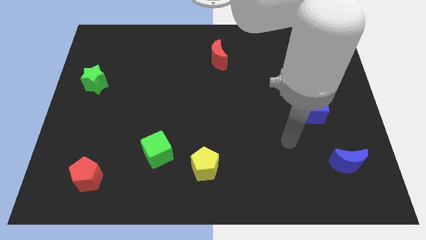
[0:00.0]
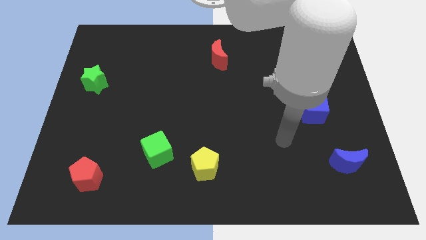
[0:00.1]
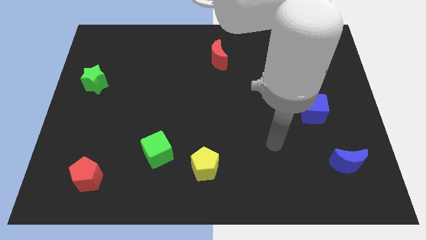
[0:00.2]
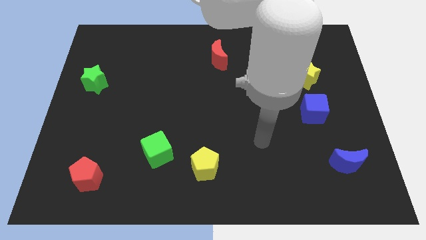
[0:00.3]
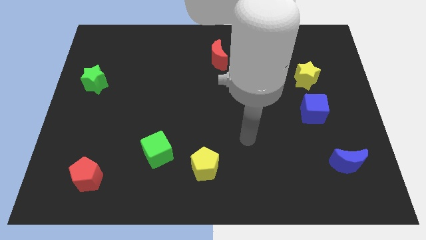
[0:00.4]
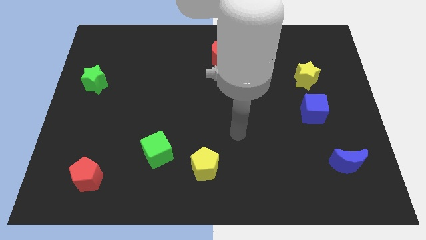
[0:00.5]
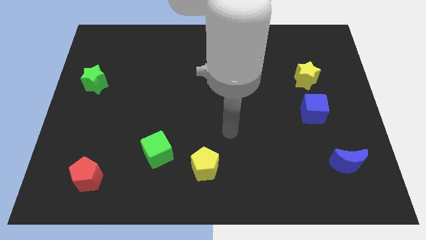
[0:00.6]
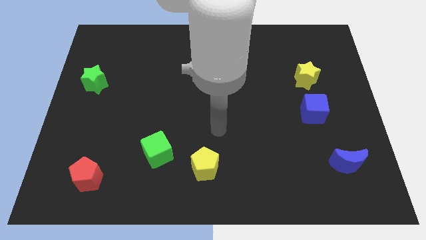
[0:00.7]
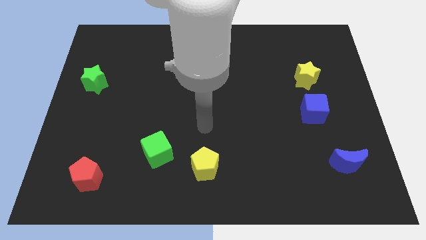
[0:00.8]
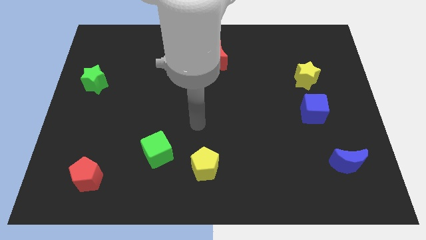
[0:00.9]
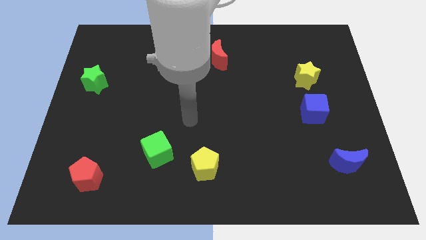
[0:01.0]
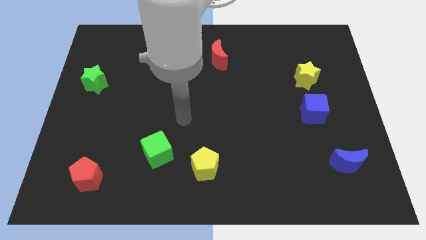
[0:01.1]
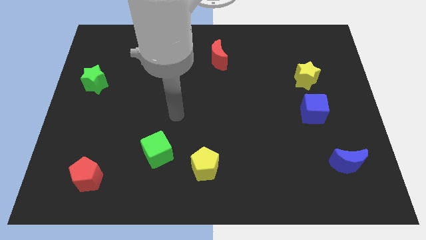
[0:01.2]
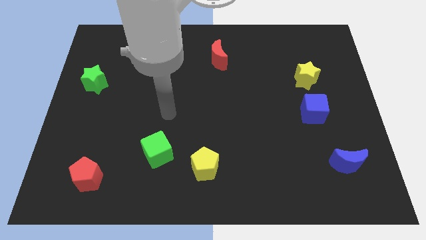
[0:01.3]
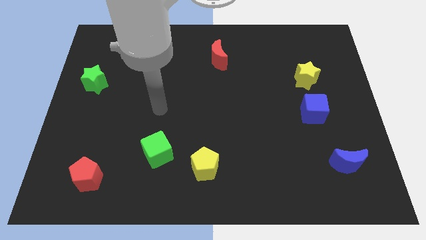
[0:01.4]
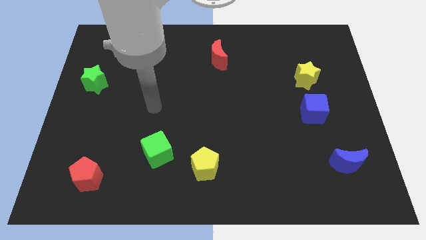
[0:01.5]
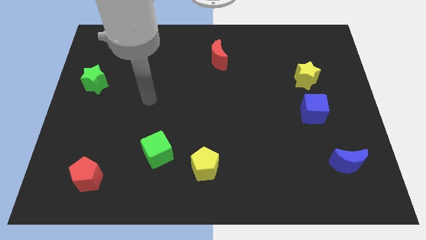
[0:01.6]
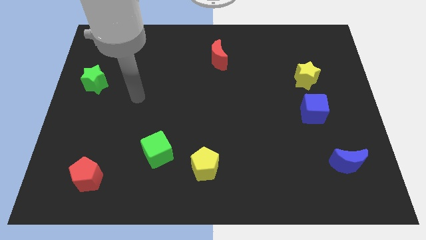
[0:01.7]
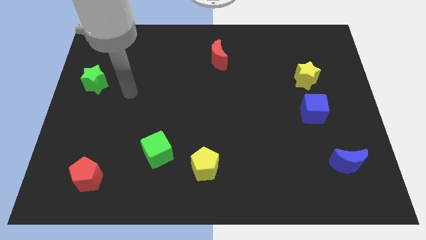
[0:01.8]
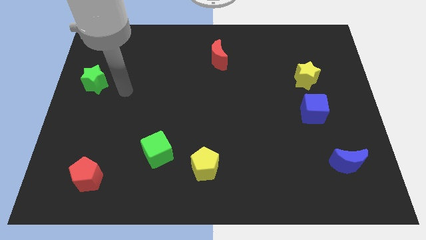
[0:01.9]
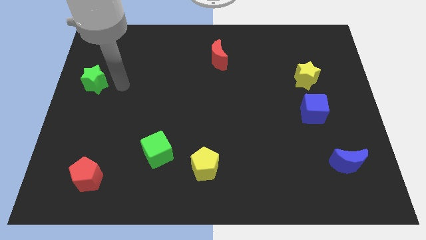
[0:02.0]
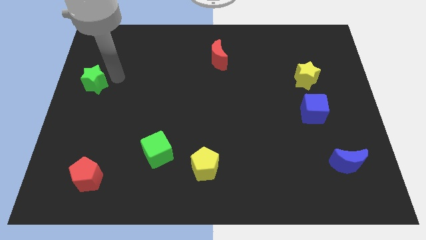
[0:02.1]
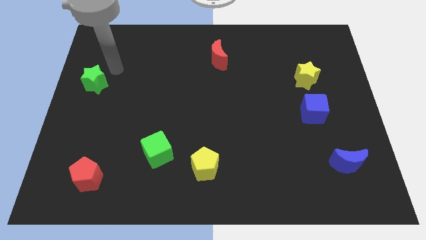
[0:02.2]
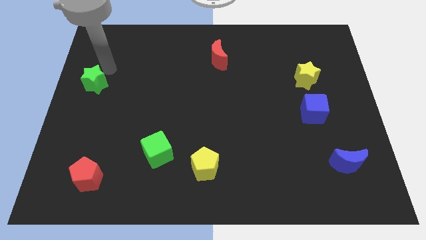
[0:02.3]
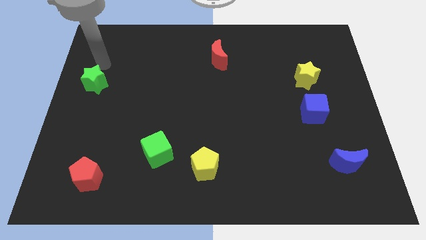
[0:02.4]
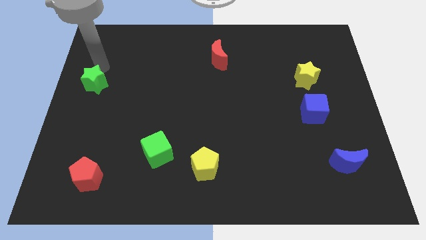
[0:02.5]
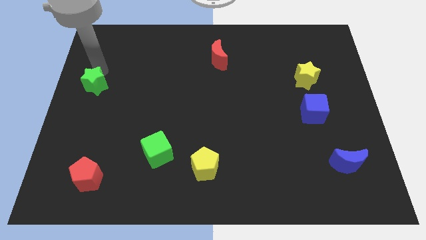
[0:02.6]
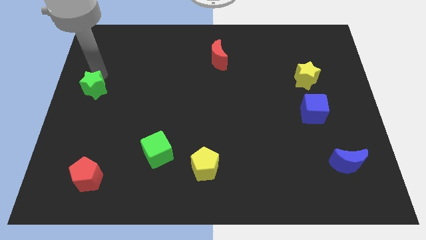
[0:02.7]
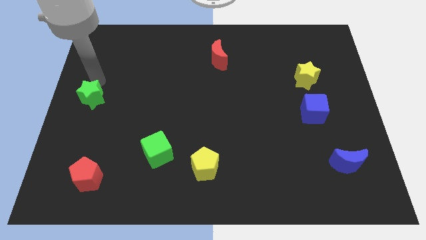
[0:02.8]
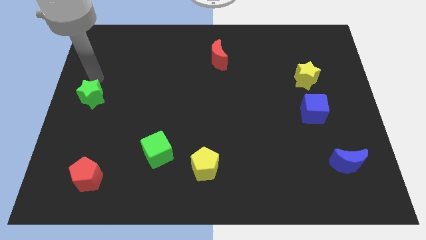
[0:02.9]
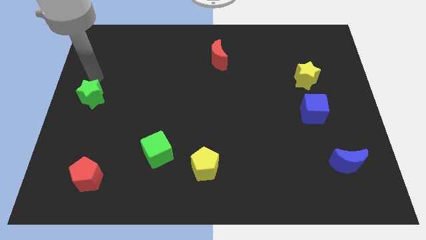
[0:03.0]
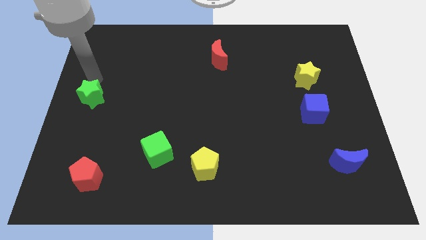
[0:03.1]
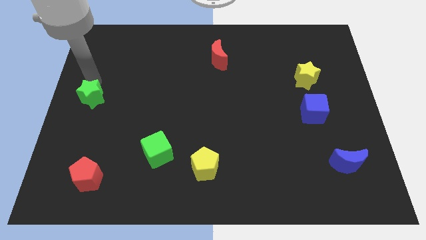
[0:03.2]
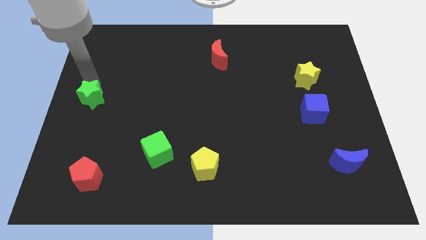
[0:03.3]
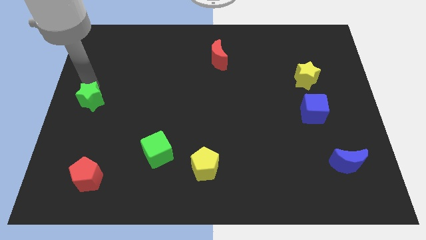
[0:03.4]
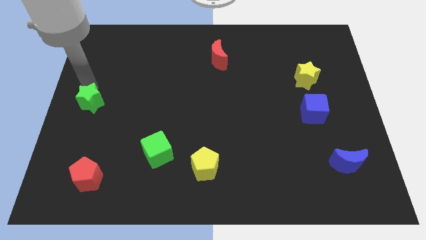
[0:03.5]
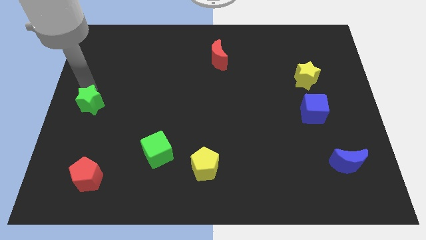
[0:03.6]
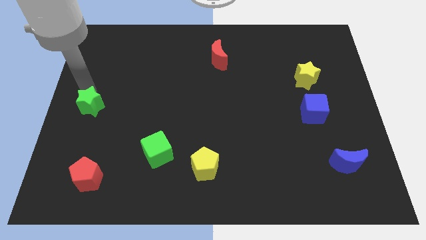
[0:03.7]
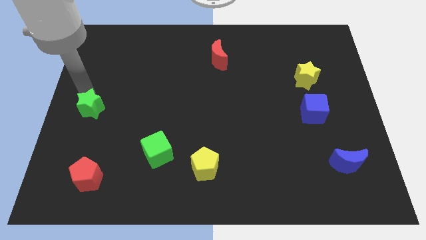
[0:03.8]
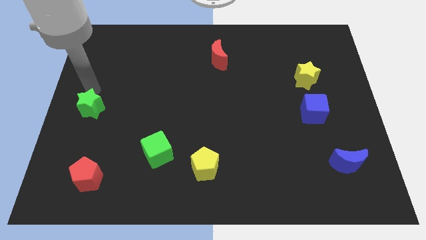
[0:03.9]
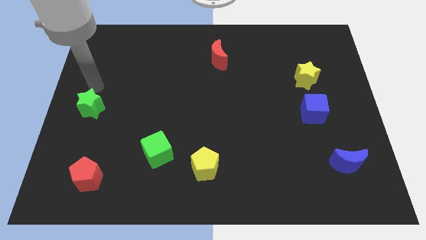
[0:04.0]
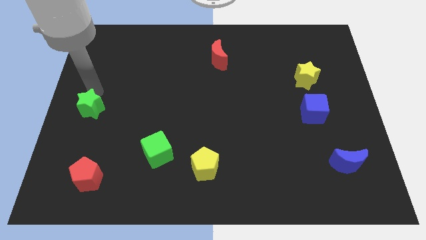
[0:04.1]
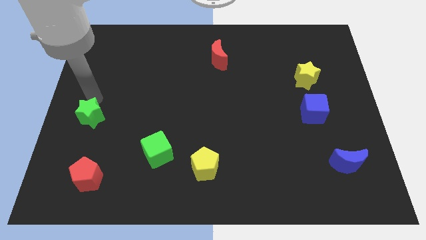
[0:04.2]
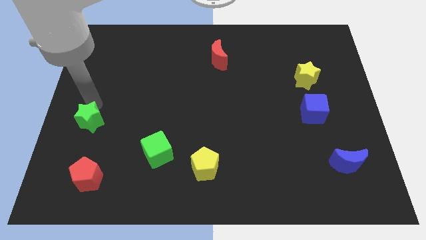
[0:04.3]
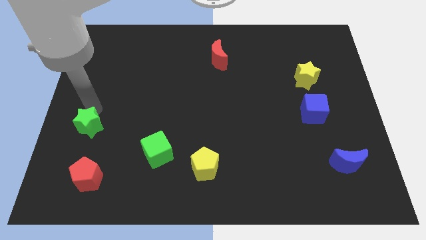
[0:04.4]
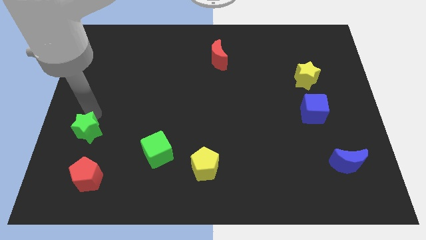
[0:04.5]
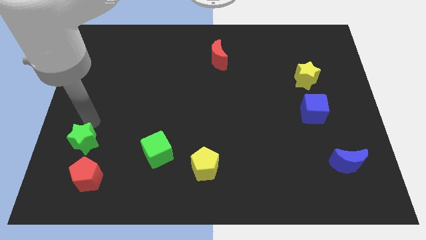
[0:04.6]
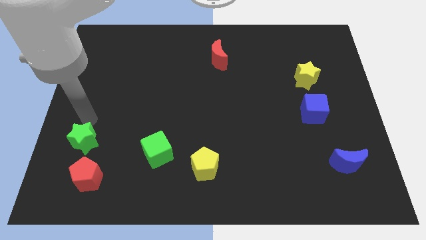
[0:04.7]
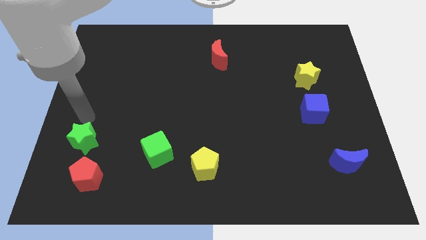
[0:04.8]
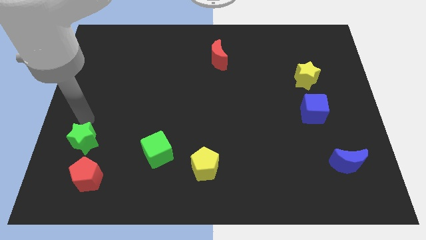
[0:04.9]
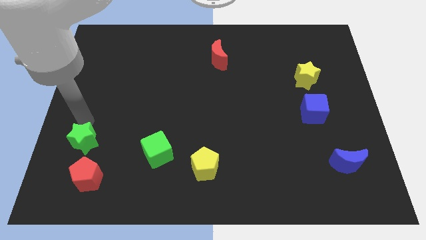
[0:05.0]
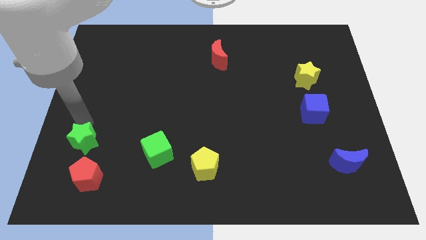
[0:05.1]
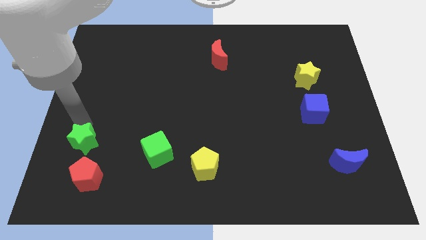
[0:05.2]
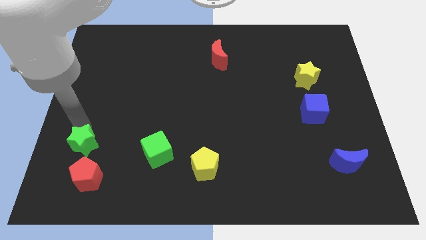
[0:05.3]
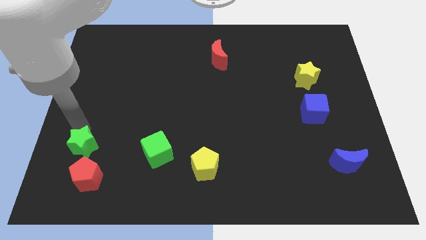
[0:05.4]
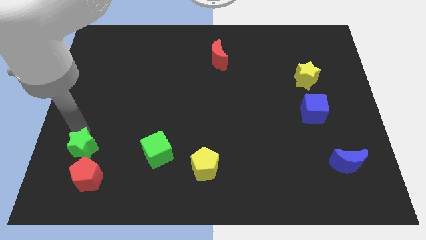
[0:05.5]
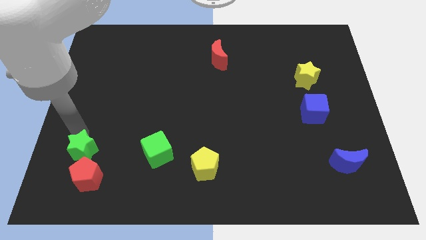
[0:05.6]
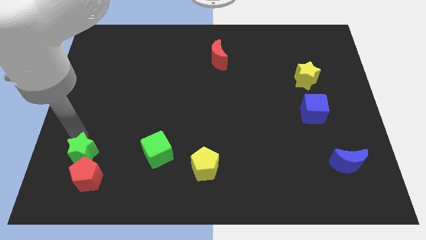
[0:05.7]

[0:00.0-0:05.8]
push the green star next to the red pentagon

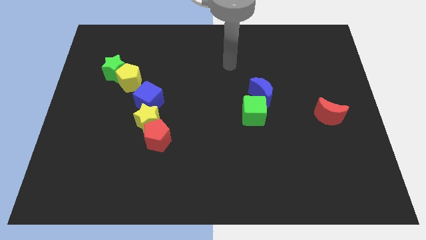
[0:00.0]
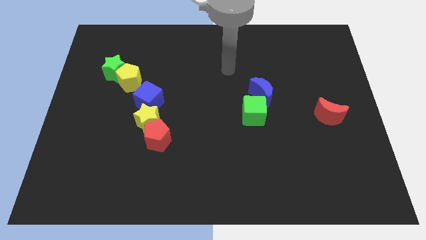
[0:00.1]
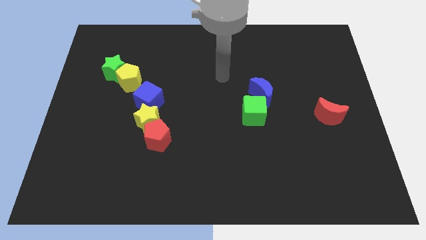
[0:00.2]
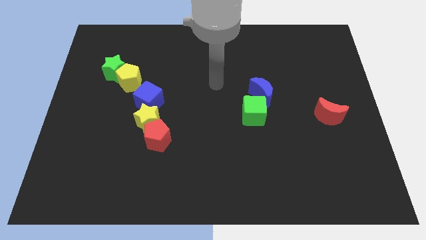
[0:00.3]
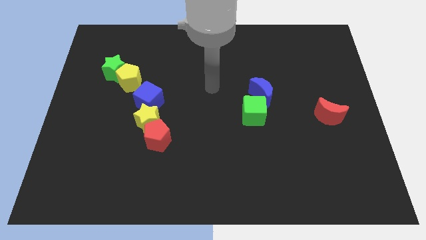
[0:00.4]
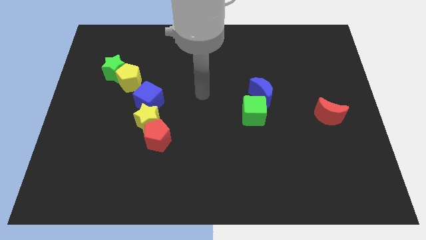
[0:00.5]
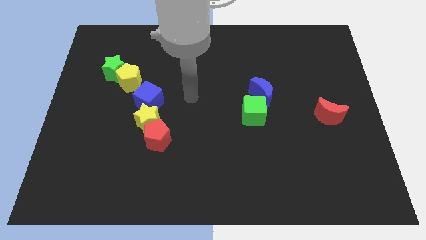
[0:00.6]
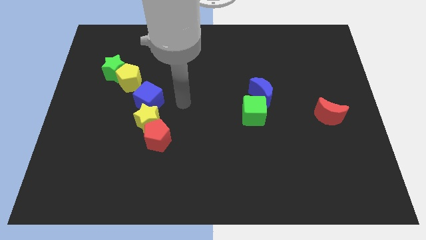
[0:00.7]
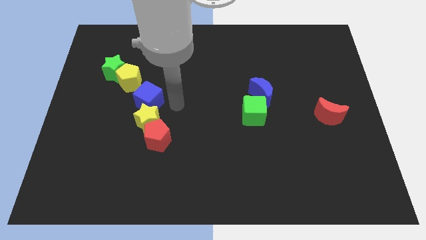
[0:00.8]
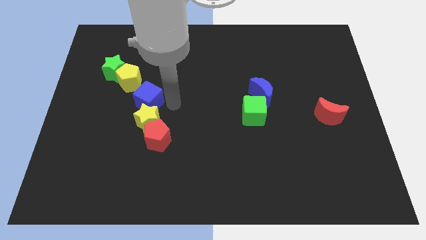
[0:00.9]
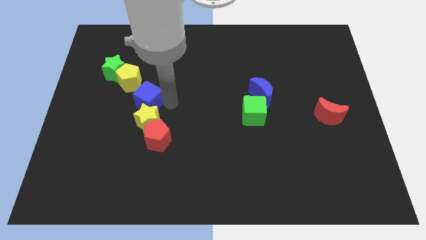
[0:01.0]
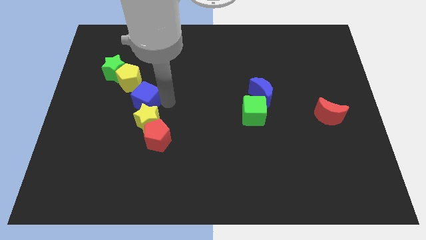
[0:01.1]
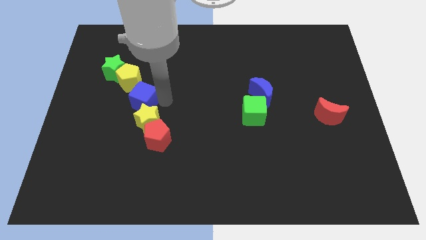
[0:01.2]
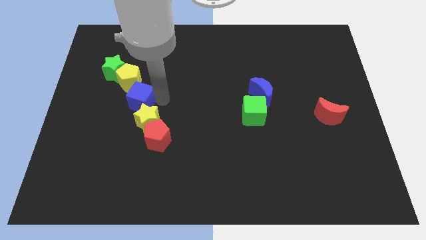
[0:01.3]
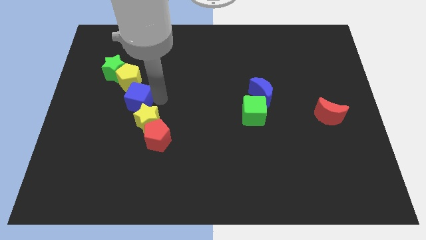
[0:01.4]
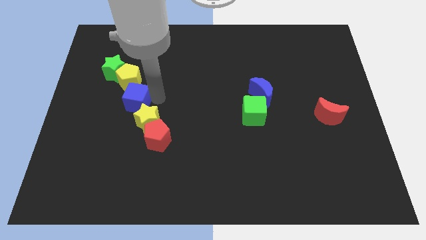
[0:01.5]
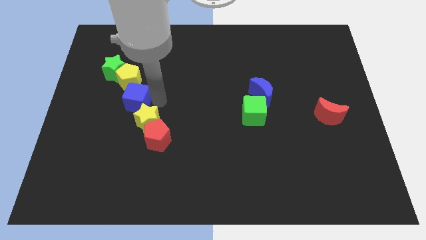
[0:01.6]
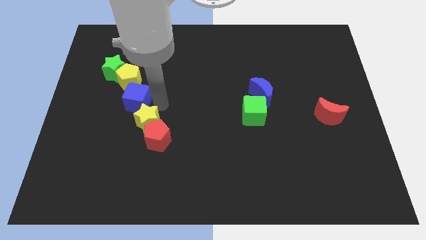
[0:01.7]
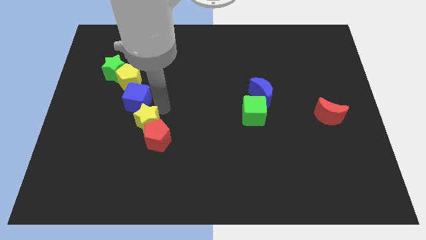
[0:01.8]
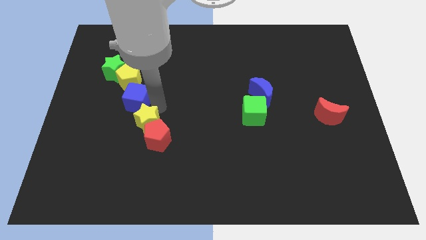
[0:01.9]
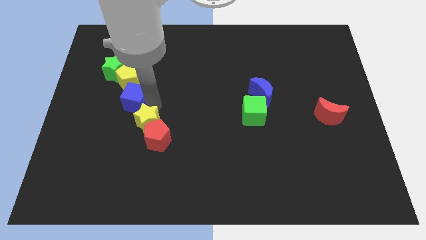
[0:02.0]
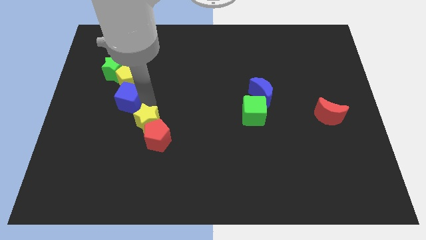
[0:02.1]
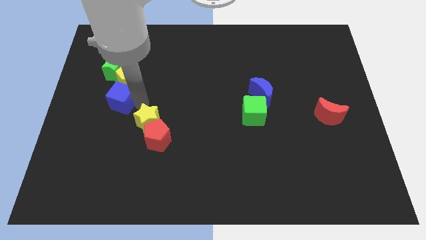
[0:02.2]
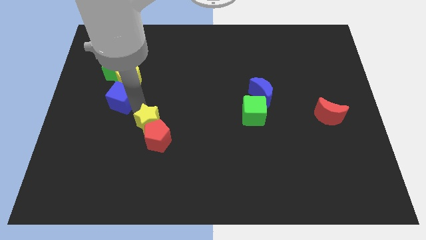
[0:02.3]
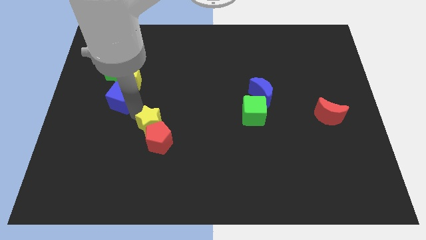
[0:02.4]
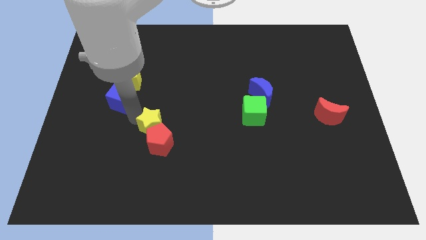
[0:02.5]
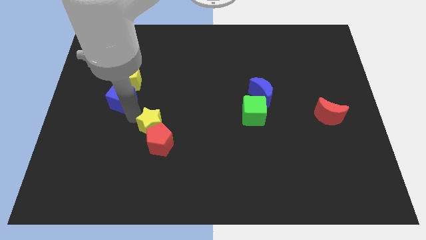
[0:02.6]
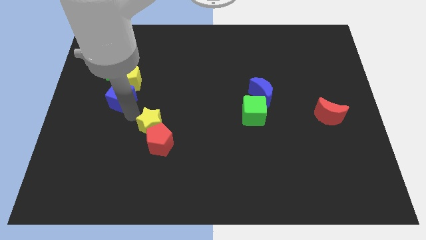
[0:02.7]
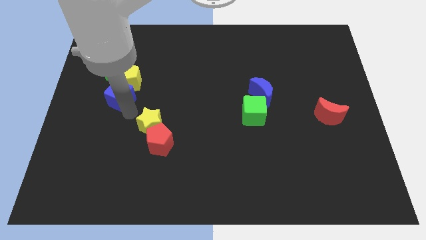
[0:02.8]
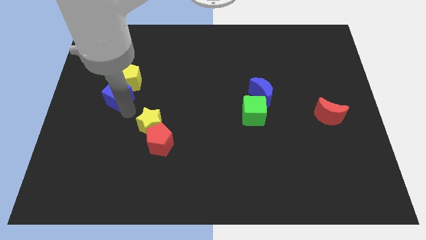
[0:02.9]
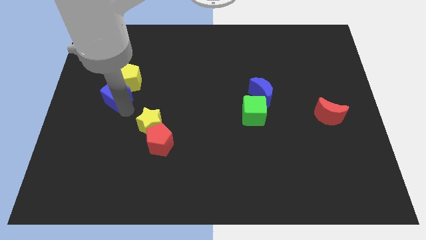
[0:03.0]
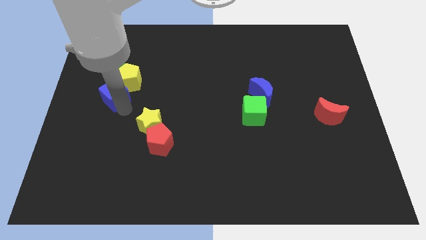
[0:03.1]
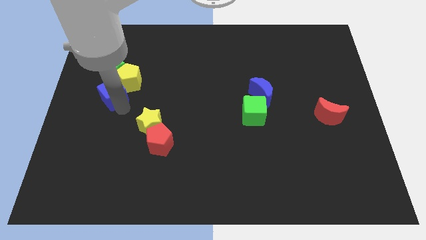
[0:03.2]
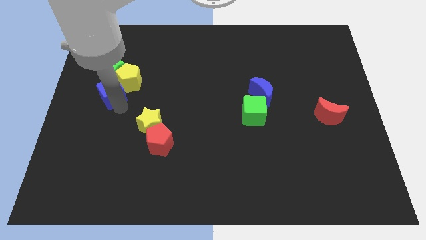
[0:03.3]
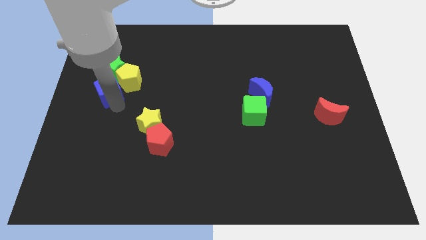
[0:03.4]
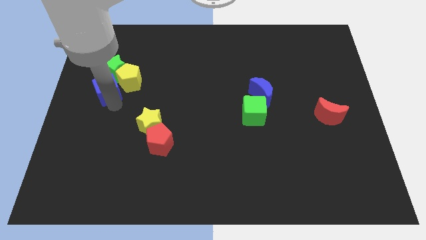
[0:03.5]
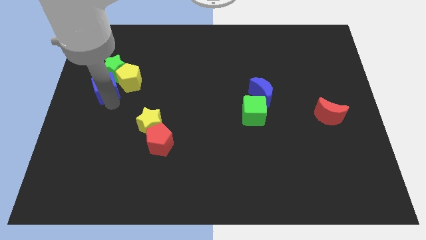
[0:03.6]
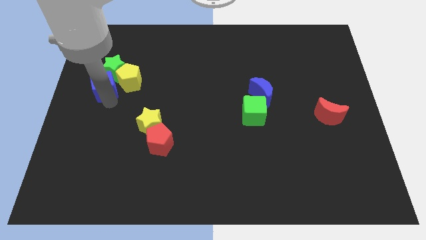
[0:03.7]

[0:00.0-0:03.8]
move the blue cube next to the green star
